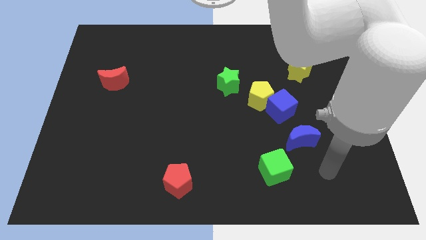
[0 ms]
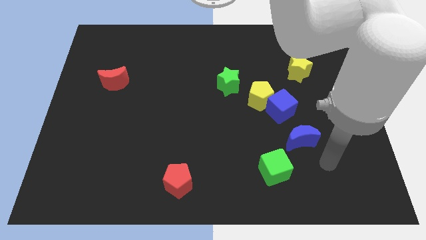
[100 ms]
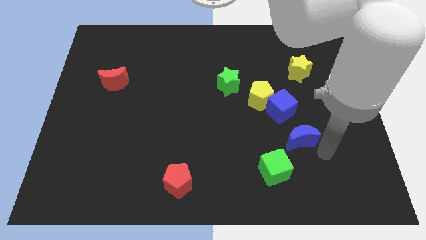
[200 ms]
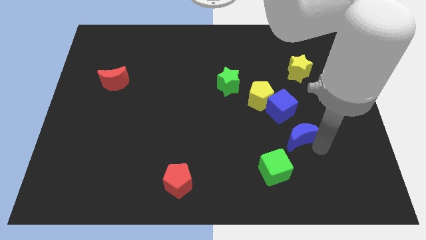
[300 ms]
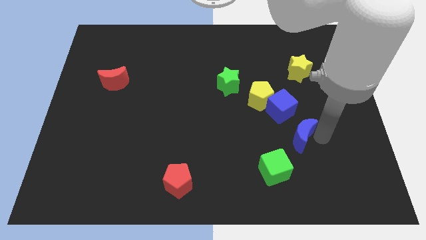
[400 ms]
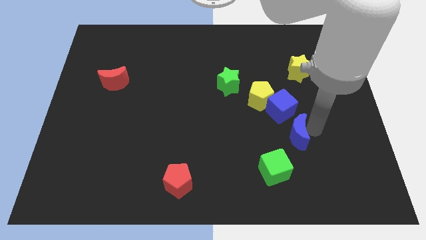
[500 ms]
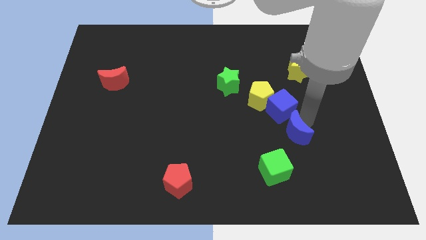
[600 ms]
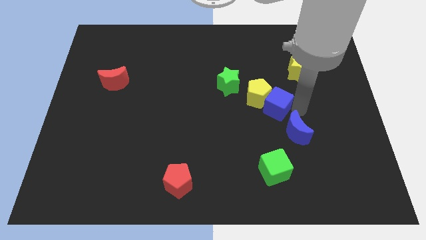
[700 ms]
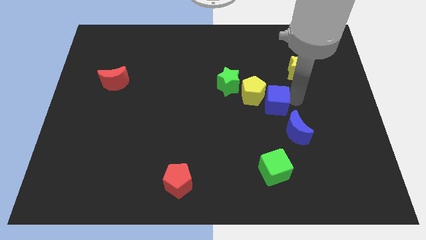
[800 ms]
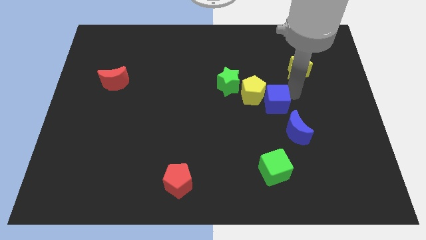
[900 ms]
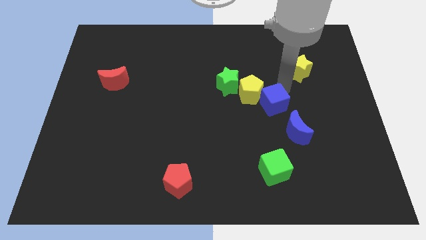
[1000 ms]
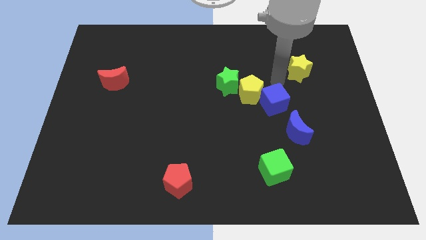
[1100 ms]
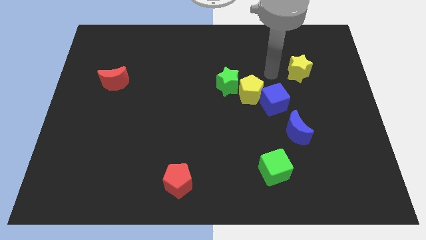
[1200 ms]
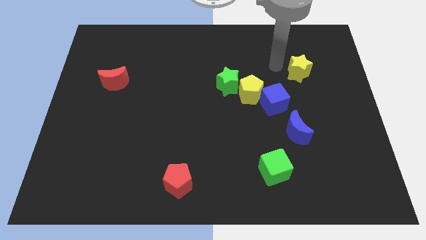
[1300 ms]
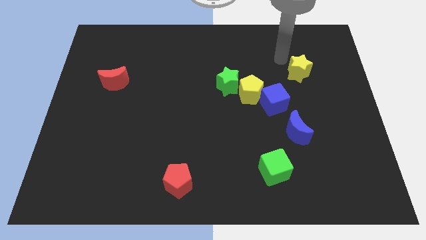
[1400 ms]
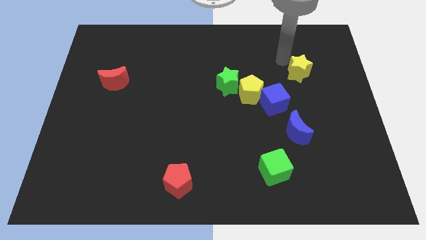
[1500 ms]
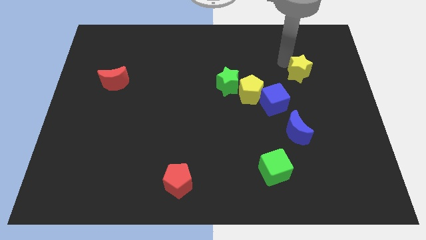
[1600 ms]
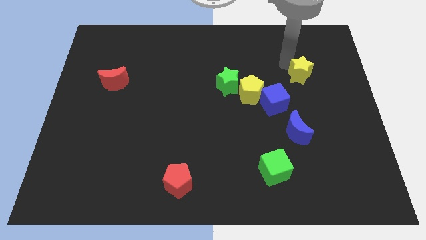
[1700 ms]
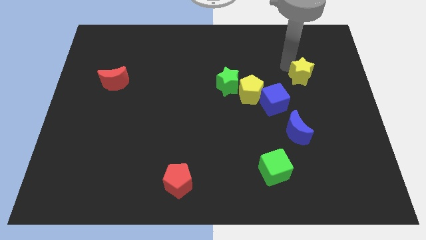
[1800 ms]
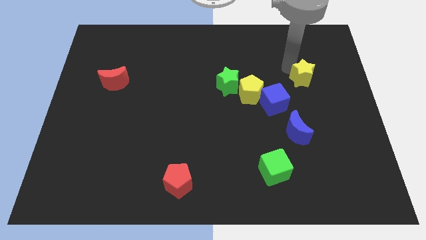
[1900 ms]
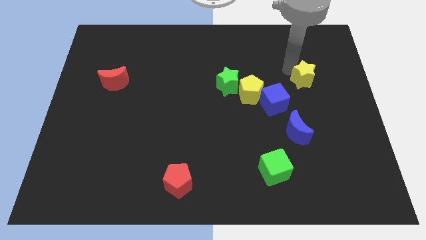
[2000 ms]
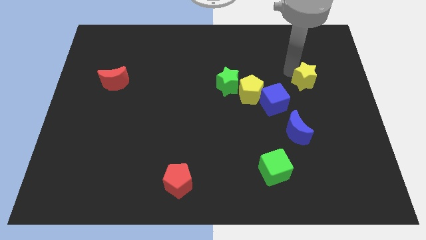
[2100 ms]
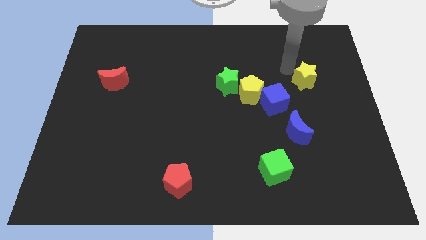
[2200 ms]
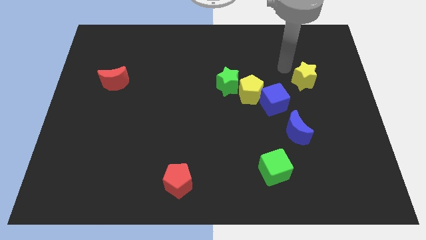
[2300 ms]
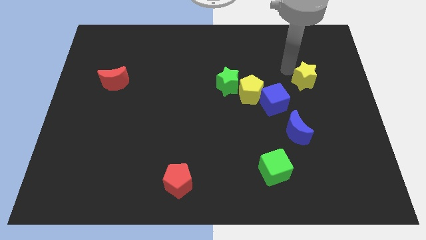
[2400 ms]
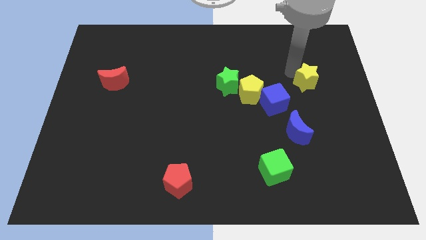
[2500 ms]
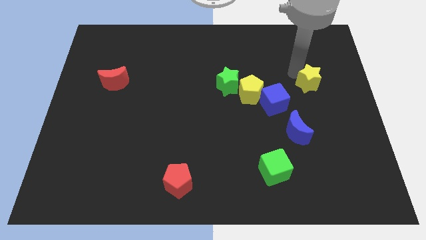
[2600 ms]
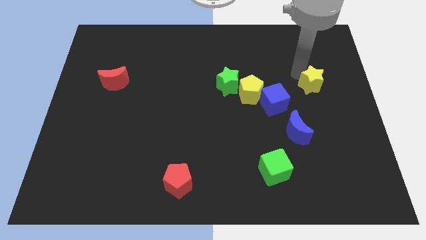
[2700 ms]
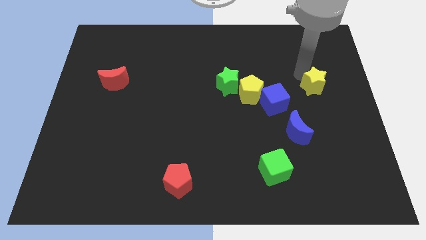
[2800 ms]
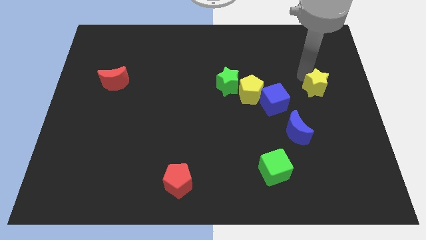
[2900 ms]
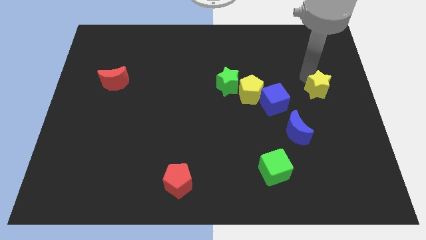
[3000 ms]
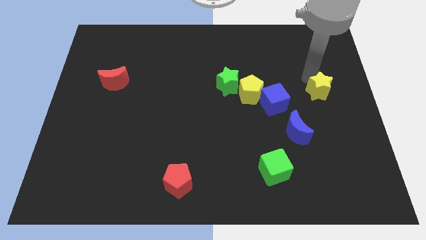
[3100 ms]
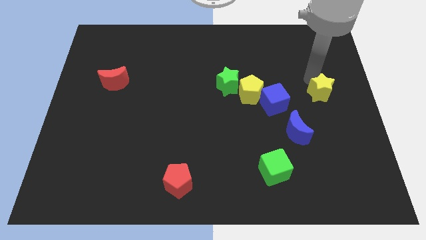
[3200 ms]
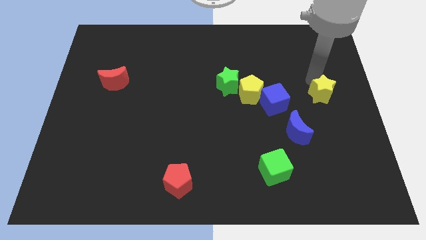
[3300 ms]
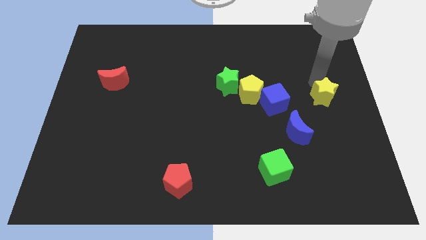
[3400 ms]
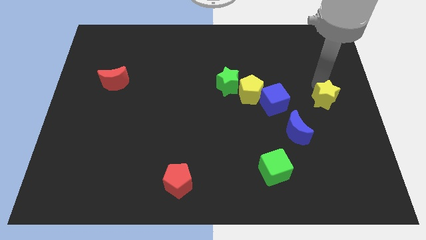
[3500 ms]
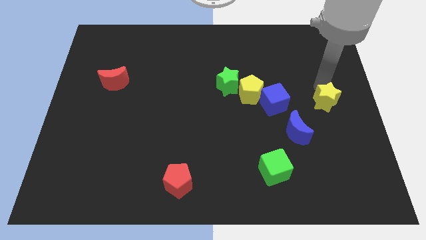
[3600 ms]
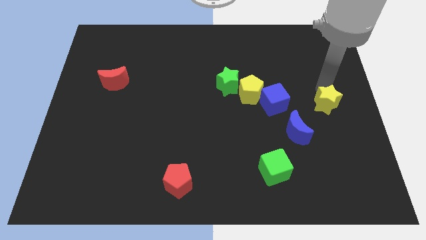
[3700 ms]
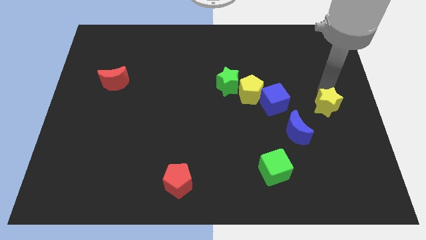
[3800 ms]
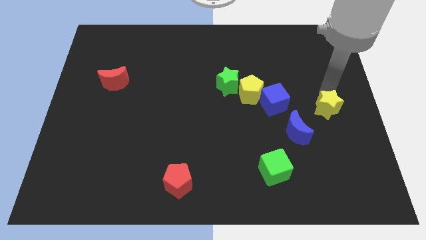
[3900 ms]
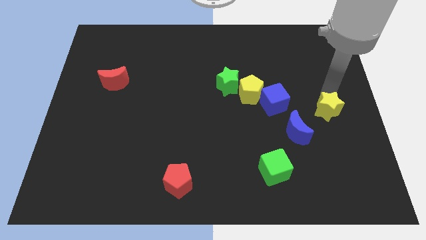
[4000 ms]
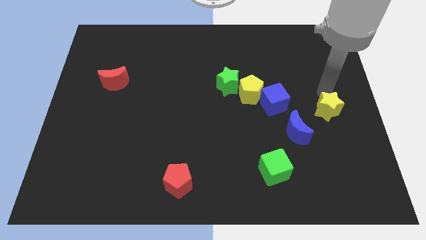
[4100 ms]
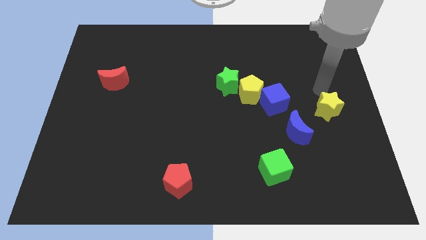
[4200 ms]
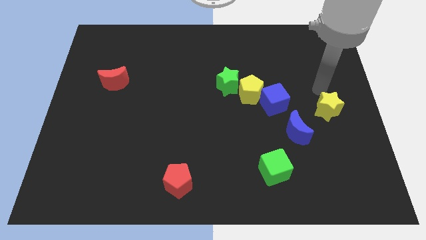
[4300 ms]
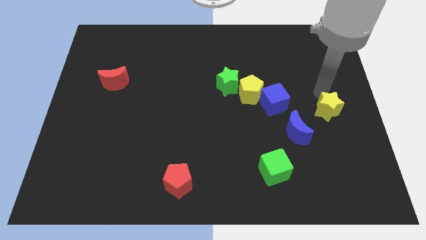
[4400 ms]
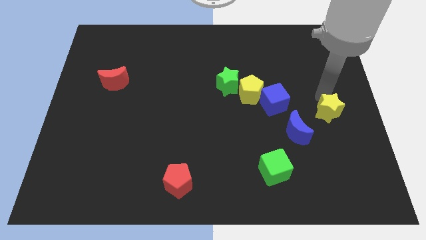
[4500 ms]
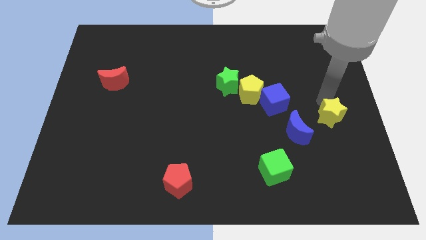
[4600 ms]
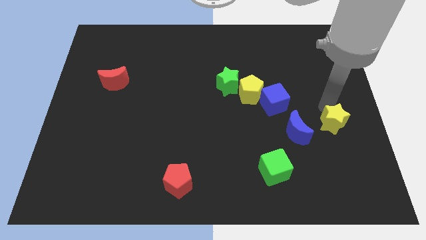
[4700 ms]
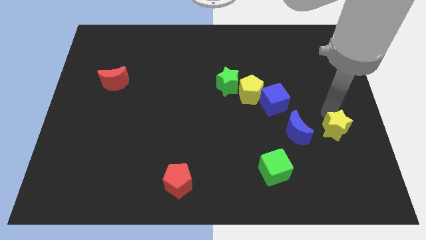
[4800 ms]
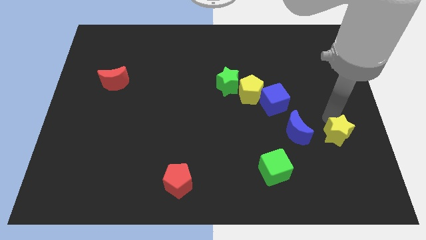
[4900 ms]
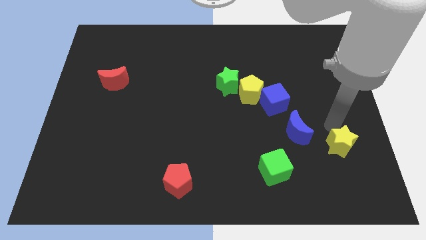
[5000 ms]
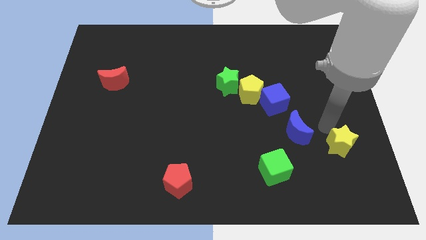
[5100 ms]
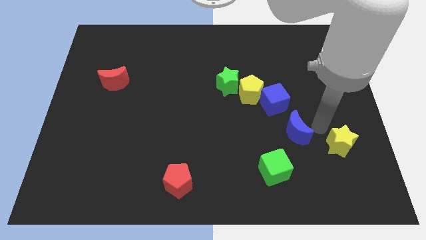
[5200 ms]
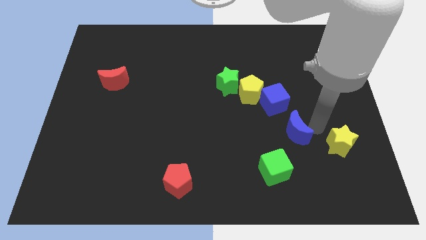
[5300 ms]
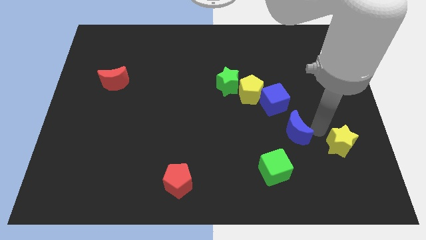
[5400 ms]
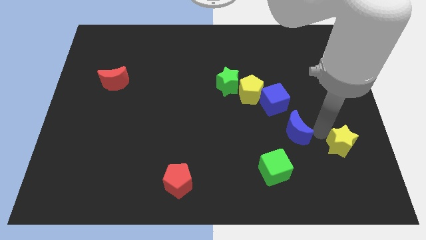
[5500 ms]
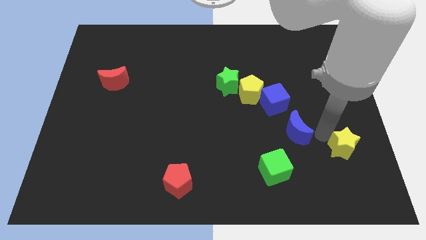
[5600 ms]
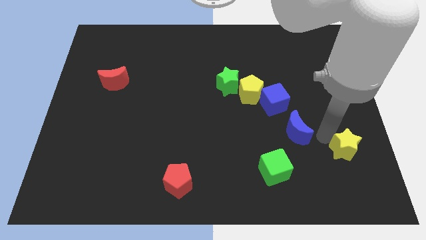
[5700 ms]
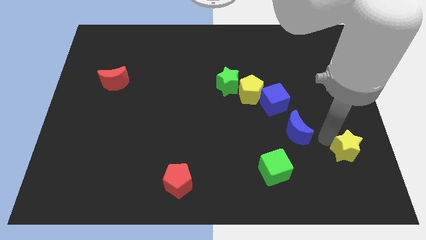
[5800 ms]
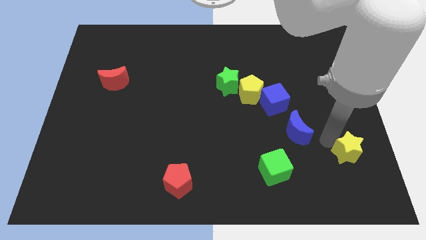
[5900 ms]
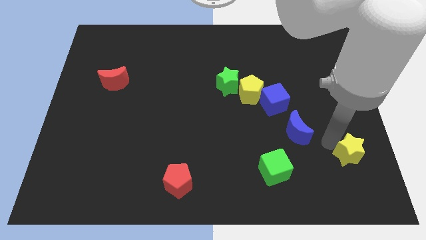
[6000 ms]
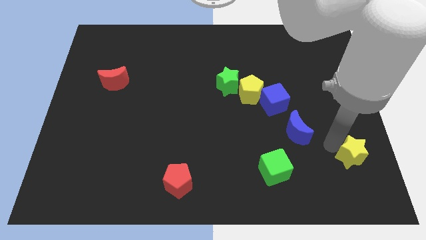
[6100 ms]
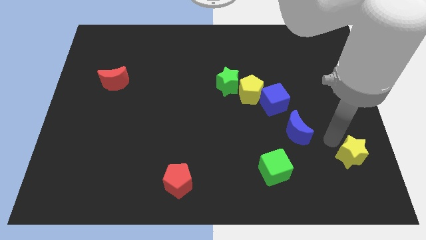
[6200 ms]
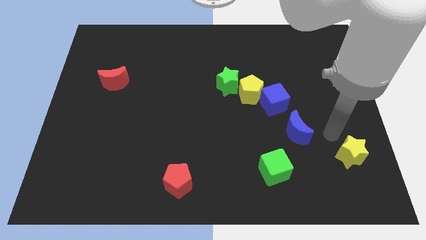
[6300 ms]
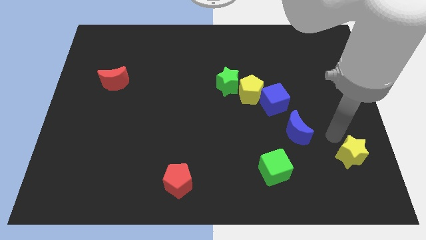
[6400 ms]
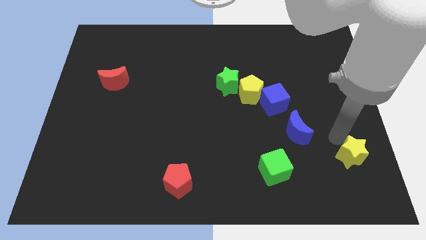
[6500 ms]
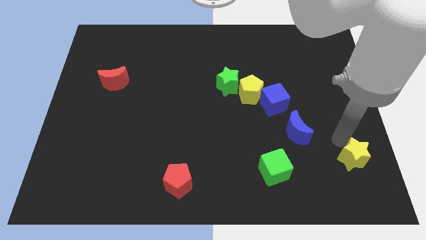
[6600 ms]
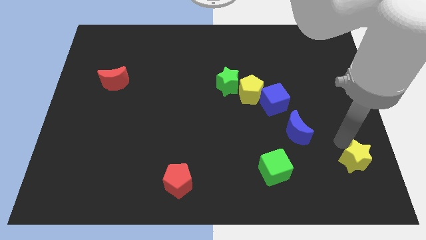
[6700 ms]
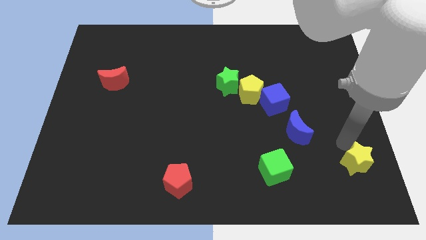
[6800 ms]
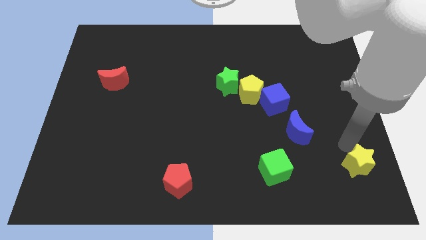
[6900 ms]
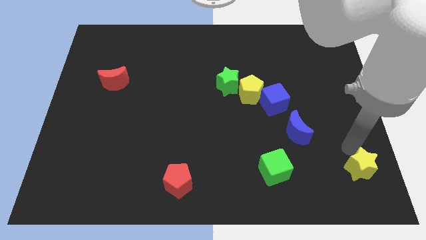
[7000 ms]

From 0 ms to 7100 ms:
put the yellow star to the lower right corner
